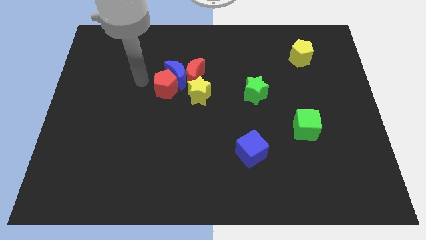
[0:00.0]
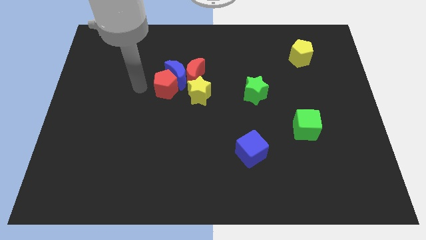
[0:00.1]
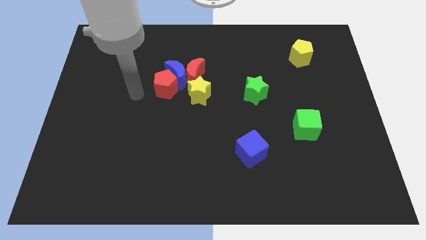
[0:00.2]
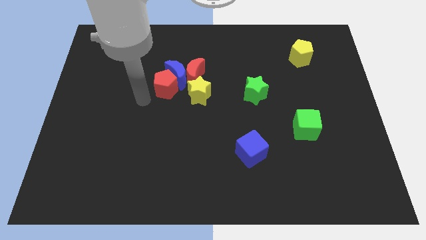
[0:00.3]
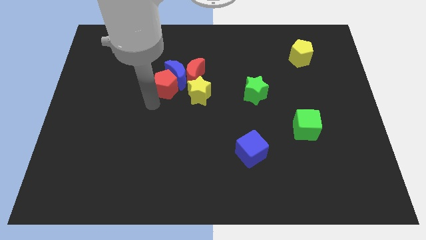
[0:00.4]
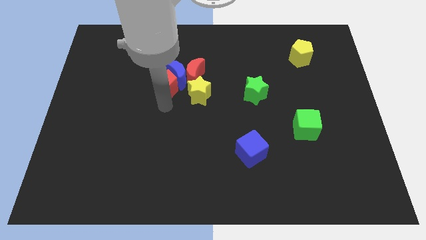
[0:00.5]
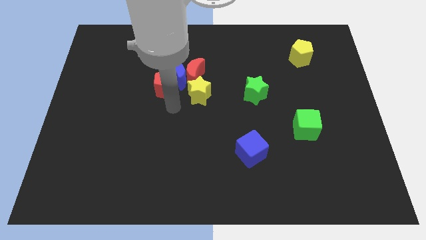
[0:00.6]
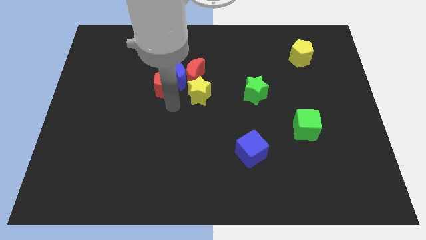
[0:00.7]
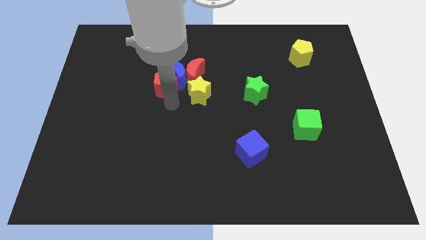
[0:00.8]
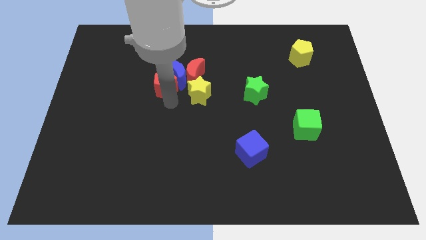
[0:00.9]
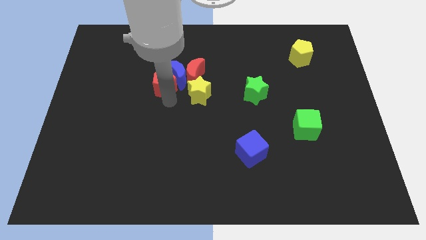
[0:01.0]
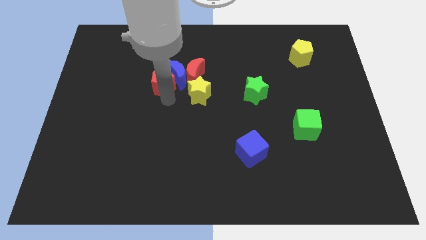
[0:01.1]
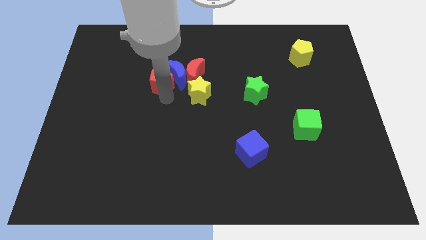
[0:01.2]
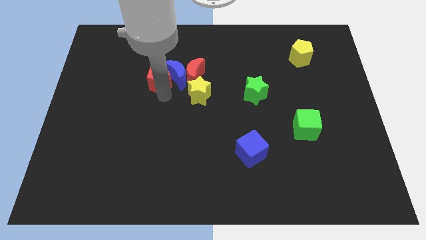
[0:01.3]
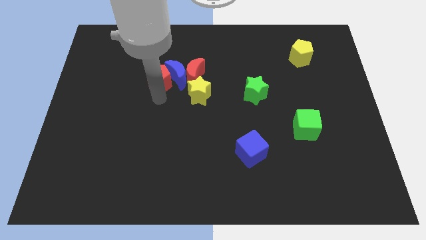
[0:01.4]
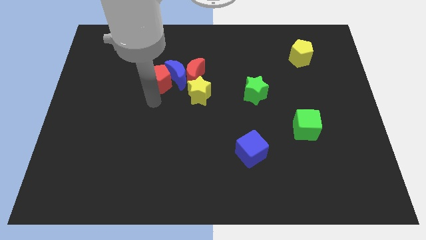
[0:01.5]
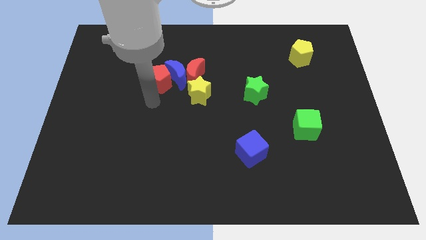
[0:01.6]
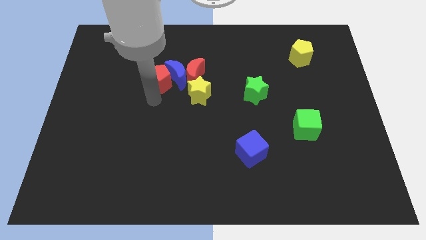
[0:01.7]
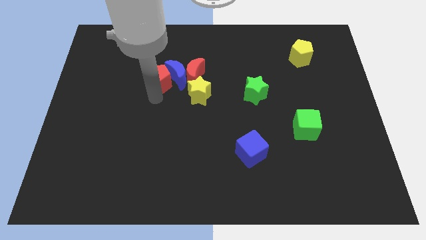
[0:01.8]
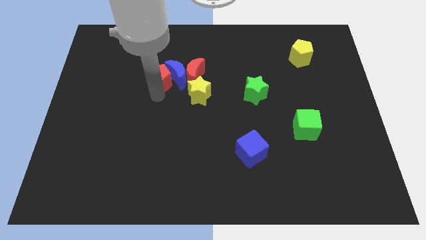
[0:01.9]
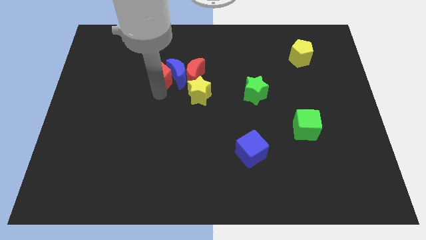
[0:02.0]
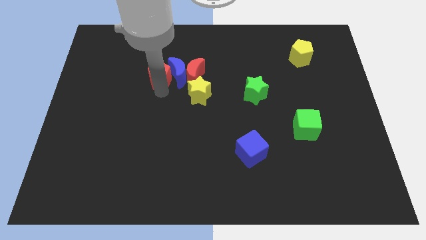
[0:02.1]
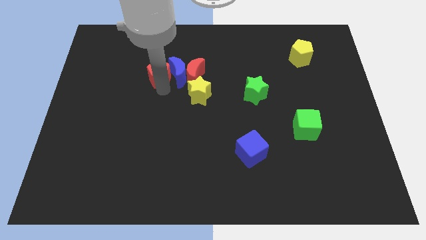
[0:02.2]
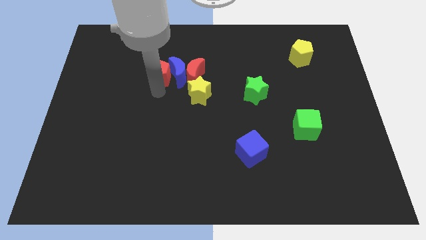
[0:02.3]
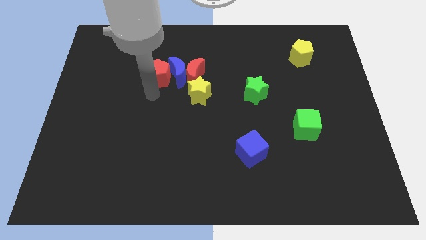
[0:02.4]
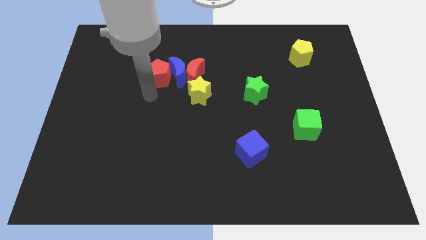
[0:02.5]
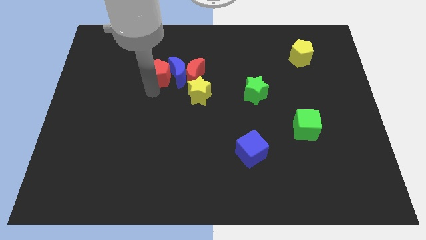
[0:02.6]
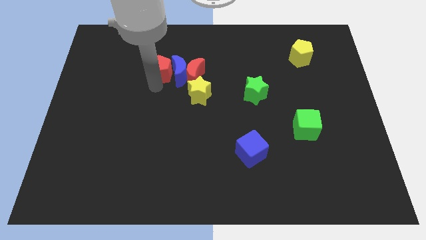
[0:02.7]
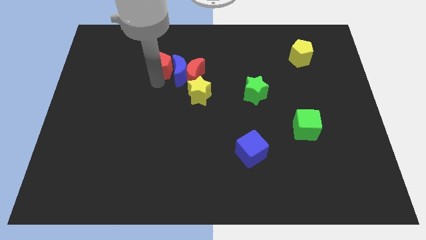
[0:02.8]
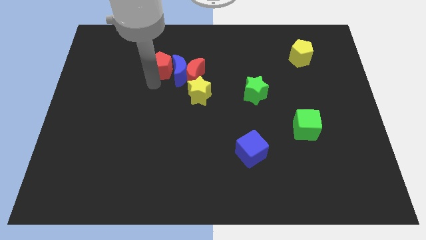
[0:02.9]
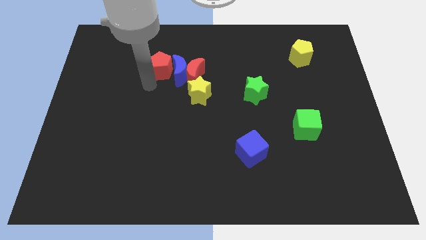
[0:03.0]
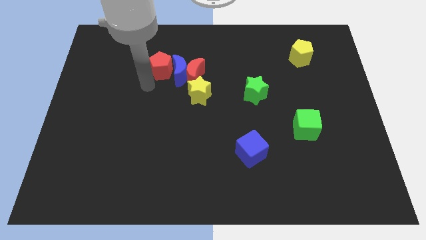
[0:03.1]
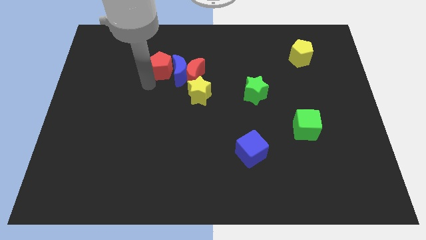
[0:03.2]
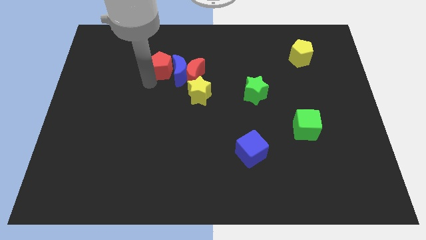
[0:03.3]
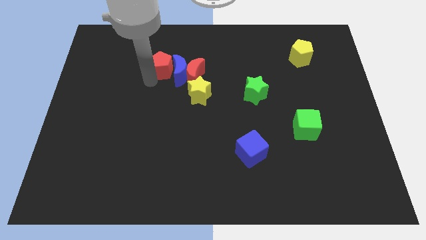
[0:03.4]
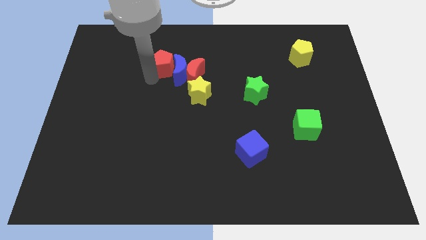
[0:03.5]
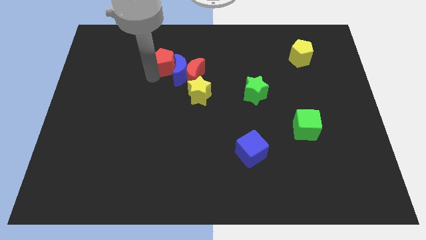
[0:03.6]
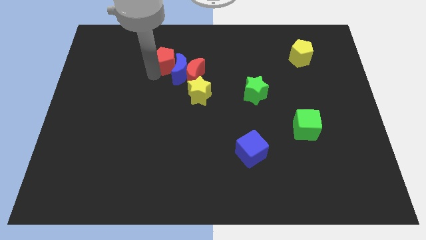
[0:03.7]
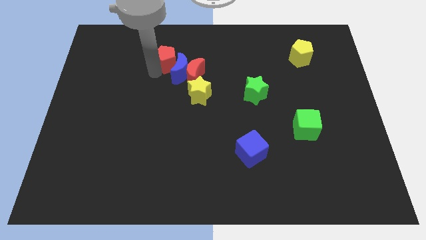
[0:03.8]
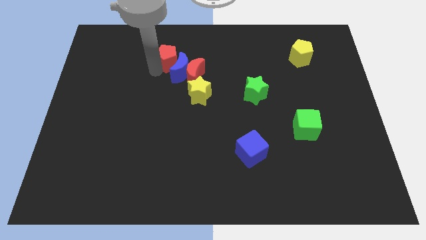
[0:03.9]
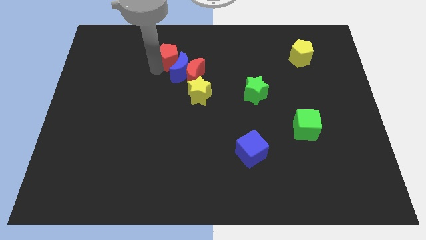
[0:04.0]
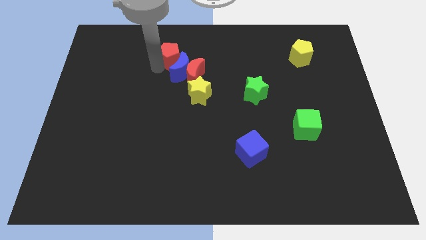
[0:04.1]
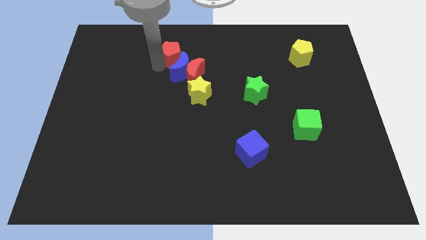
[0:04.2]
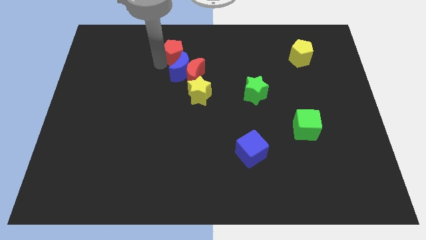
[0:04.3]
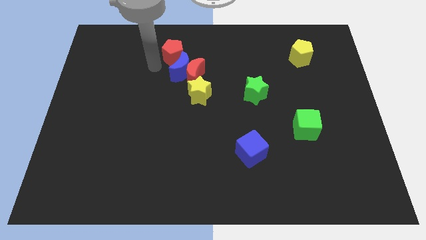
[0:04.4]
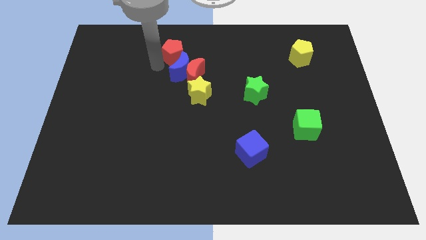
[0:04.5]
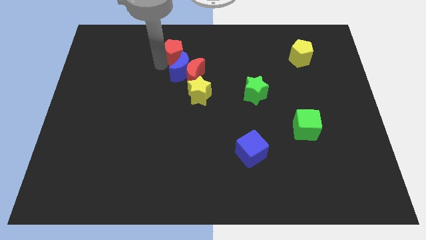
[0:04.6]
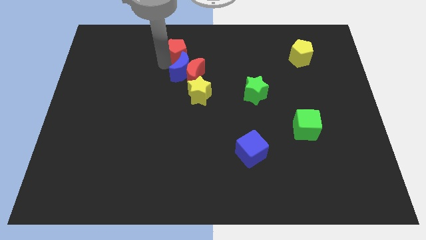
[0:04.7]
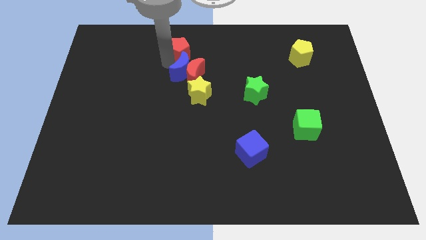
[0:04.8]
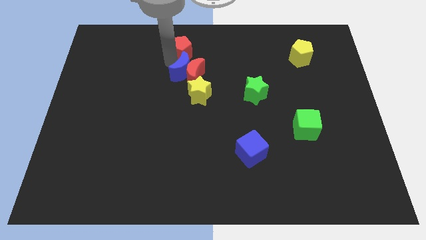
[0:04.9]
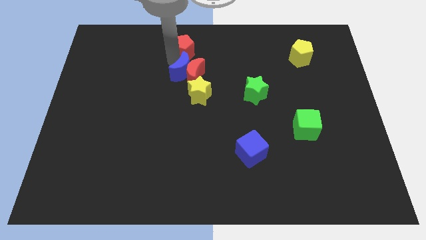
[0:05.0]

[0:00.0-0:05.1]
put the red pentagon to the towards your base
